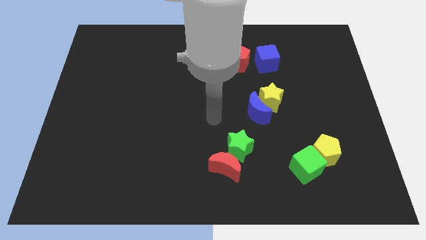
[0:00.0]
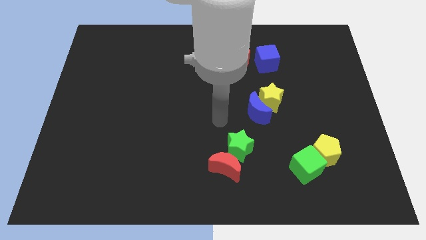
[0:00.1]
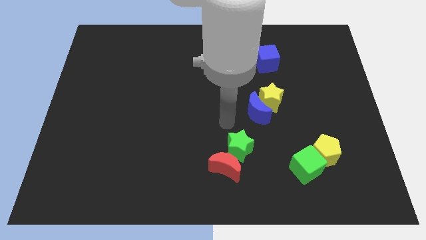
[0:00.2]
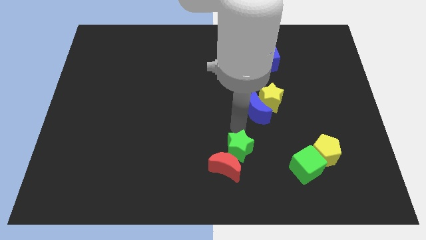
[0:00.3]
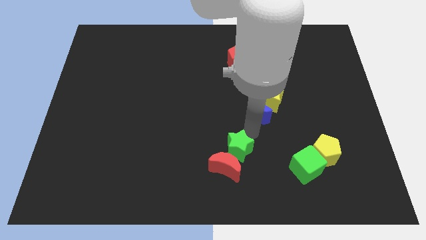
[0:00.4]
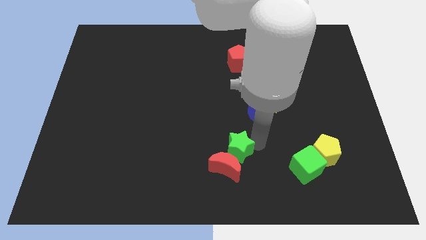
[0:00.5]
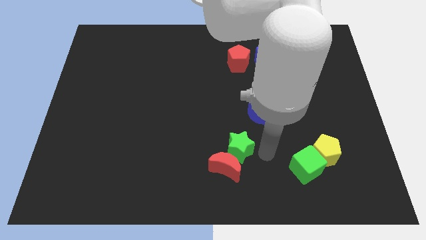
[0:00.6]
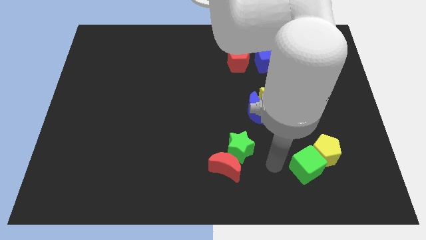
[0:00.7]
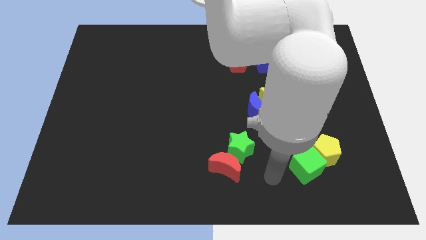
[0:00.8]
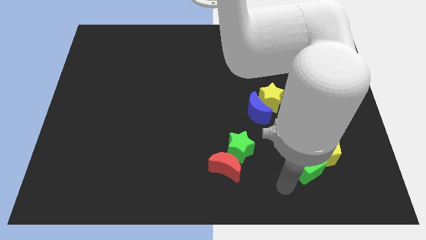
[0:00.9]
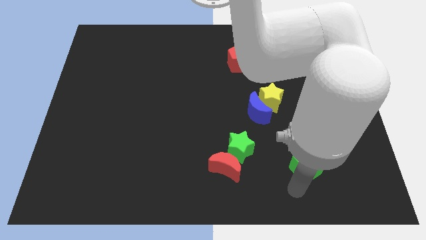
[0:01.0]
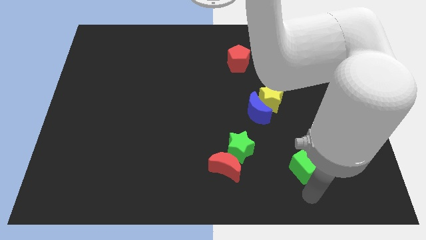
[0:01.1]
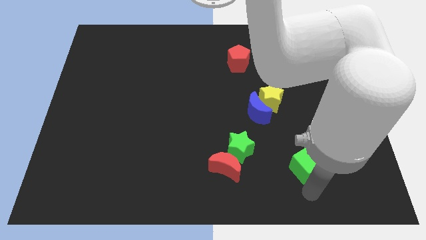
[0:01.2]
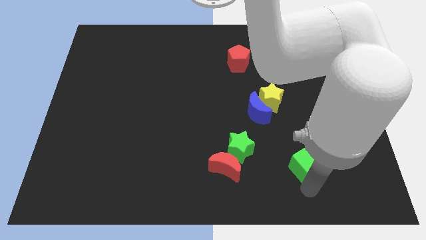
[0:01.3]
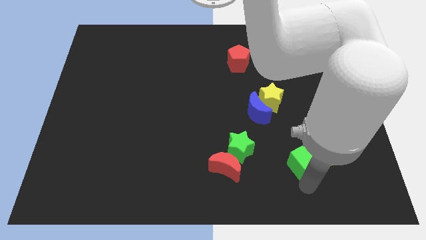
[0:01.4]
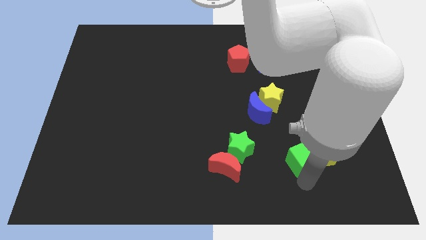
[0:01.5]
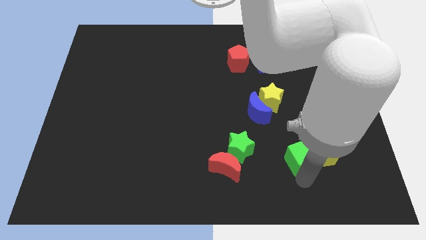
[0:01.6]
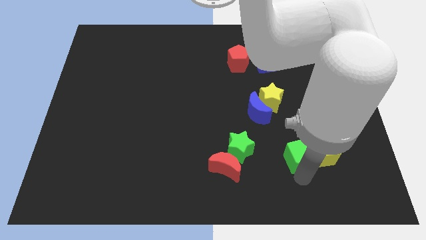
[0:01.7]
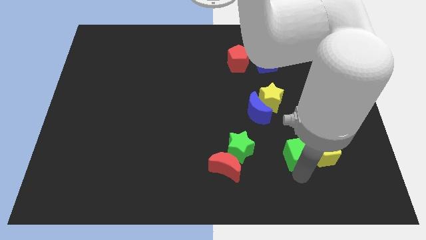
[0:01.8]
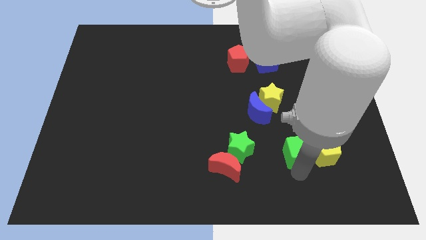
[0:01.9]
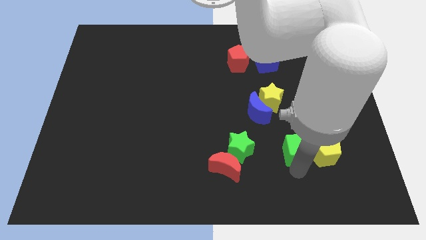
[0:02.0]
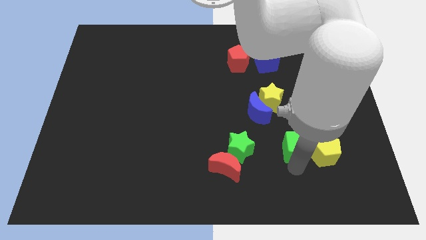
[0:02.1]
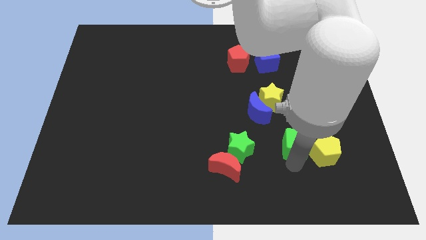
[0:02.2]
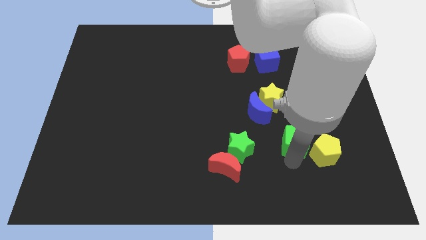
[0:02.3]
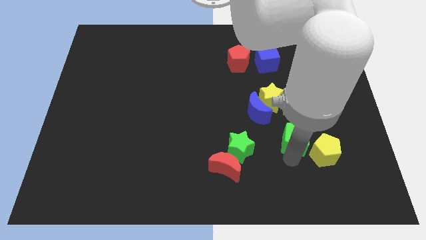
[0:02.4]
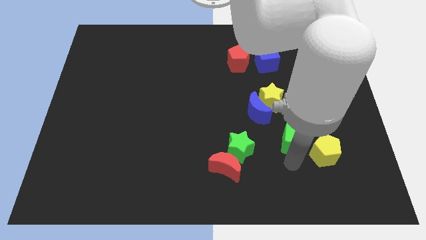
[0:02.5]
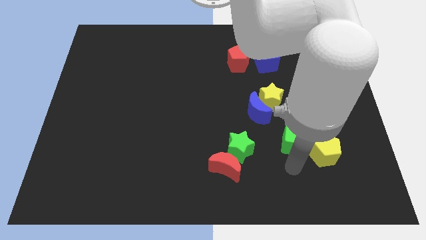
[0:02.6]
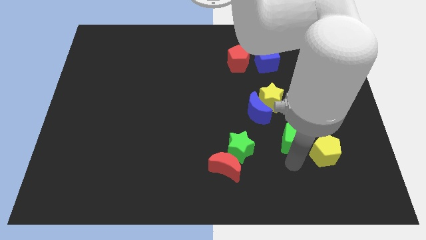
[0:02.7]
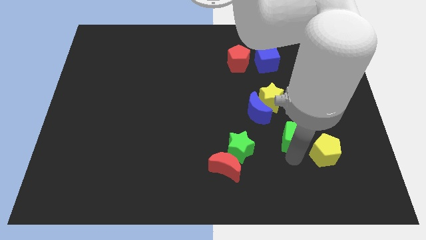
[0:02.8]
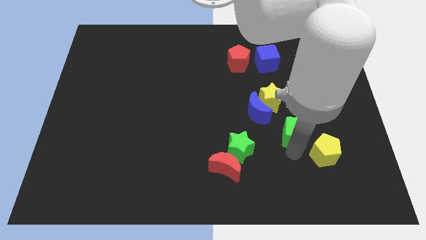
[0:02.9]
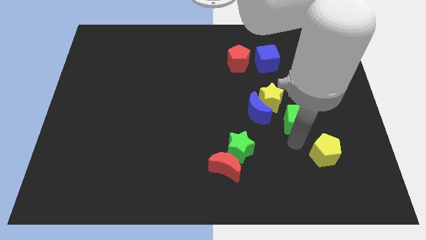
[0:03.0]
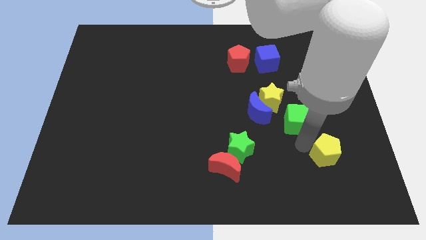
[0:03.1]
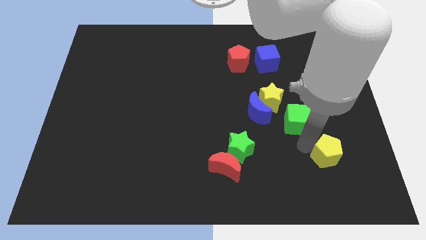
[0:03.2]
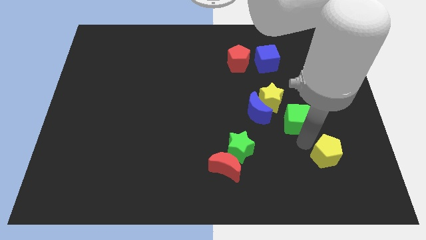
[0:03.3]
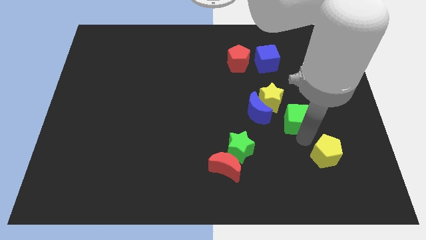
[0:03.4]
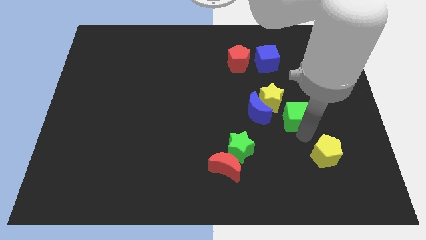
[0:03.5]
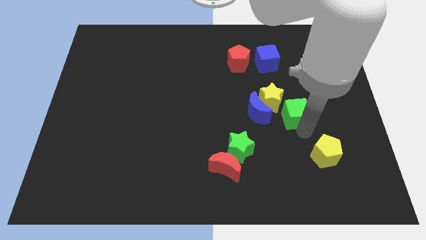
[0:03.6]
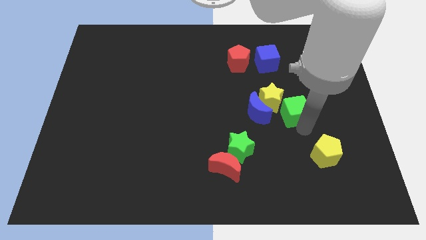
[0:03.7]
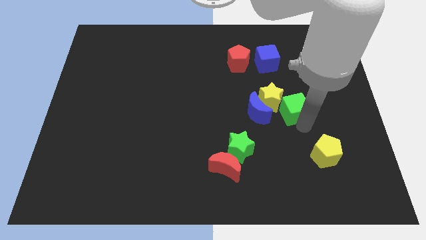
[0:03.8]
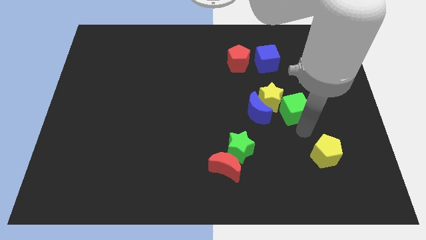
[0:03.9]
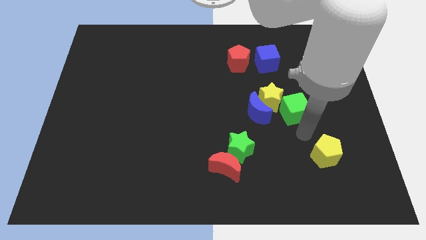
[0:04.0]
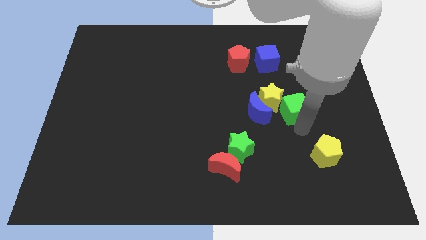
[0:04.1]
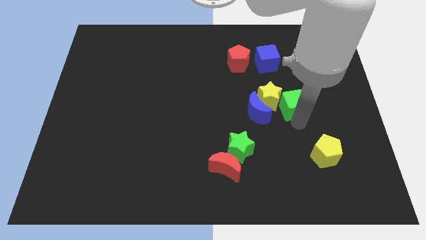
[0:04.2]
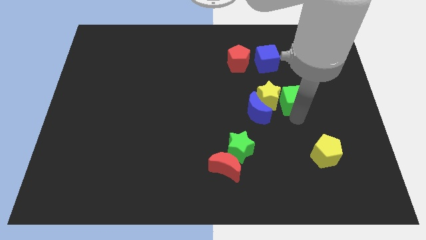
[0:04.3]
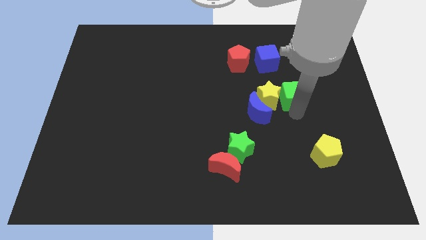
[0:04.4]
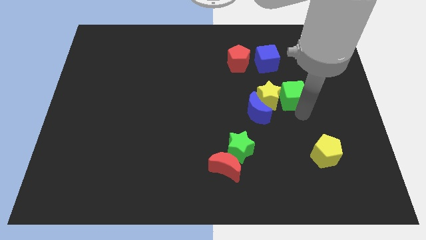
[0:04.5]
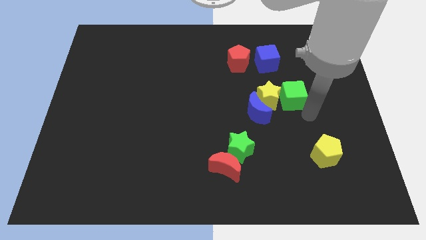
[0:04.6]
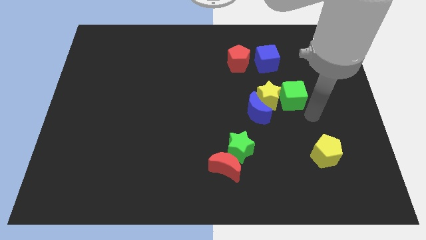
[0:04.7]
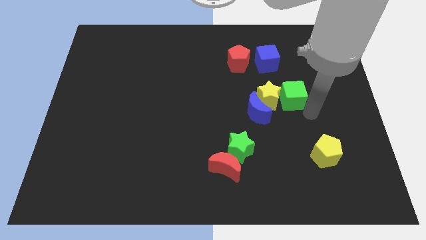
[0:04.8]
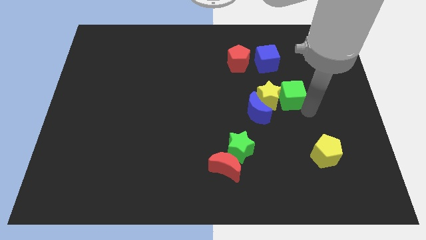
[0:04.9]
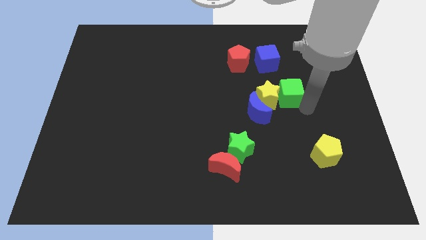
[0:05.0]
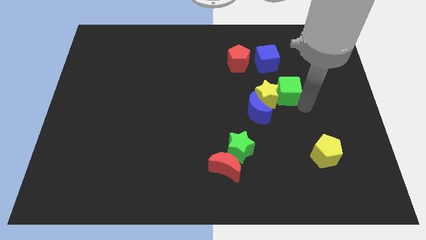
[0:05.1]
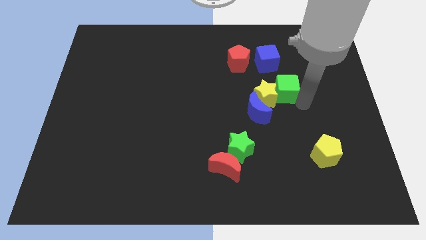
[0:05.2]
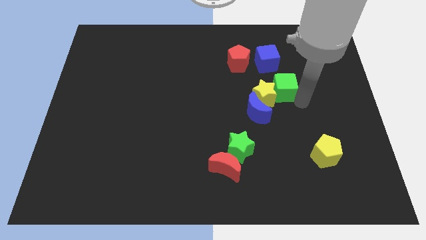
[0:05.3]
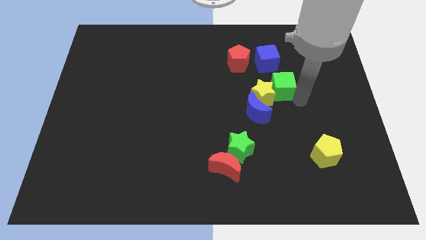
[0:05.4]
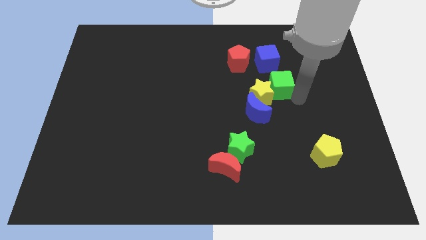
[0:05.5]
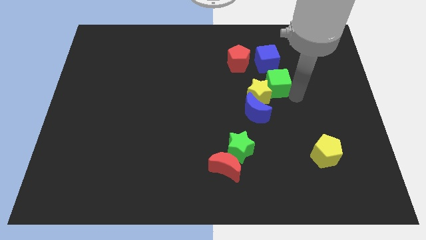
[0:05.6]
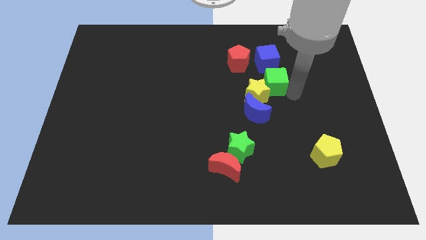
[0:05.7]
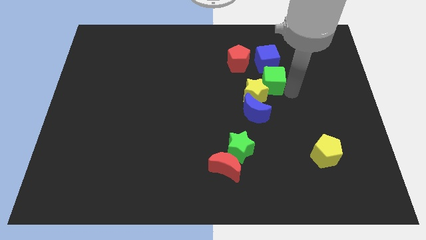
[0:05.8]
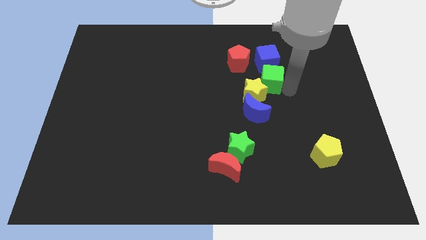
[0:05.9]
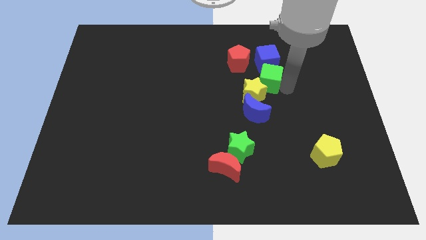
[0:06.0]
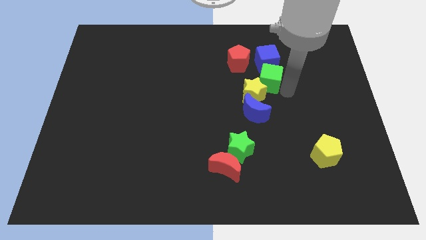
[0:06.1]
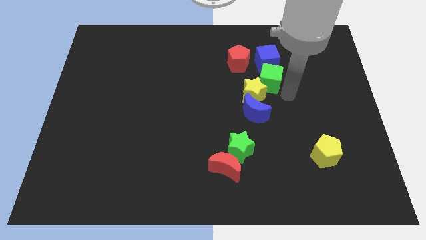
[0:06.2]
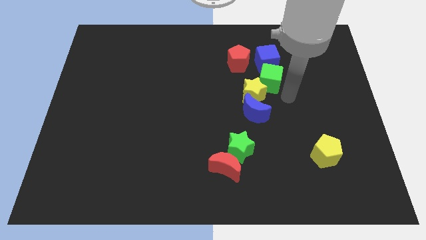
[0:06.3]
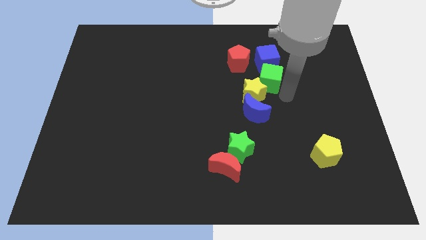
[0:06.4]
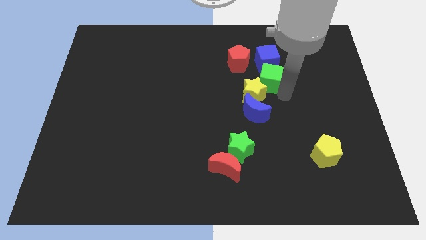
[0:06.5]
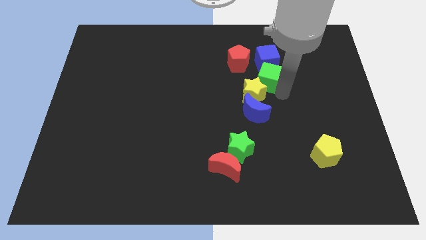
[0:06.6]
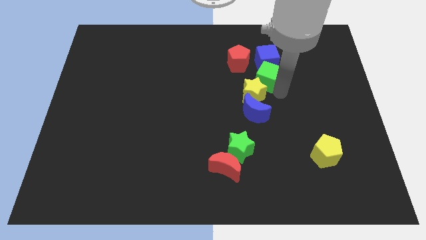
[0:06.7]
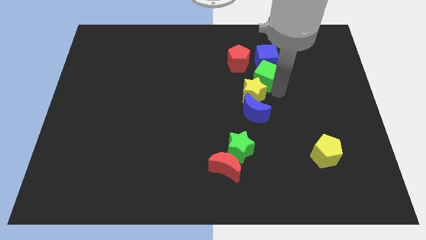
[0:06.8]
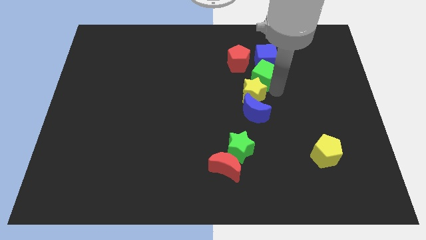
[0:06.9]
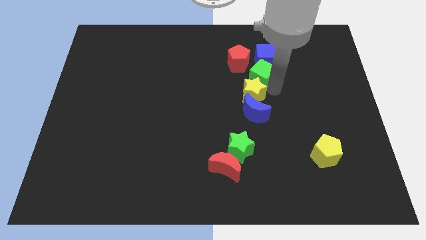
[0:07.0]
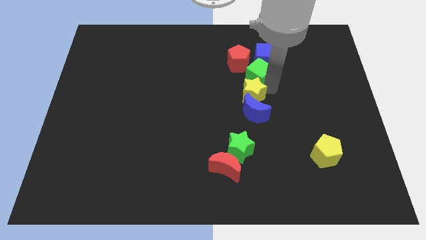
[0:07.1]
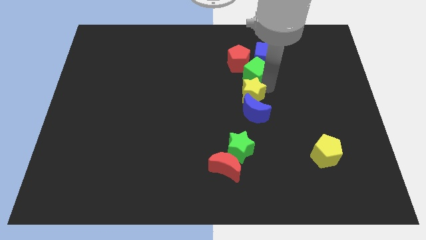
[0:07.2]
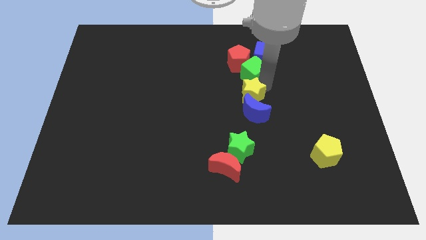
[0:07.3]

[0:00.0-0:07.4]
push the green cube to the red pentagon
